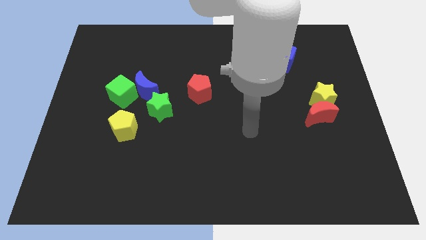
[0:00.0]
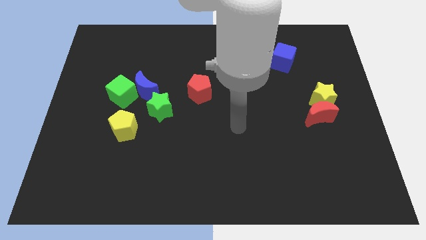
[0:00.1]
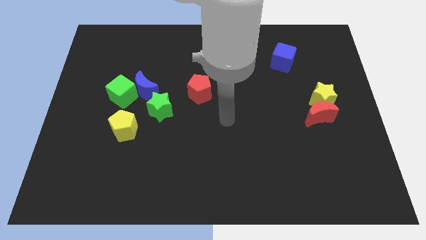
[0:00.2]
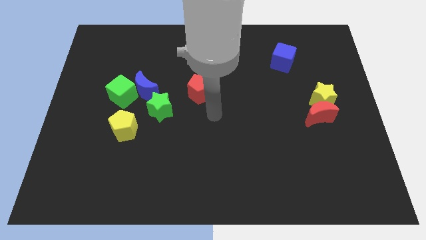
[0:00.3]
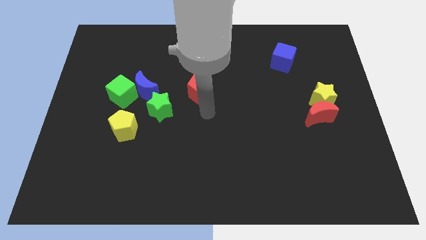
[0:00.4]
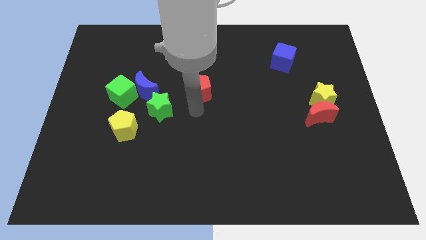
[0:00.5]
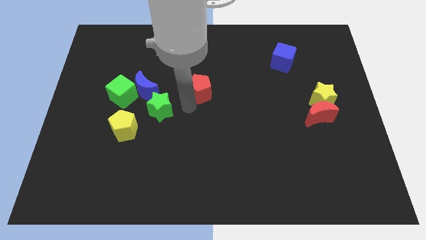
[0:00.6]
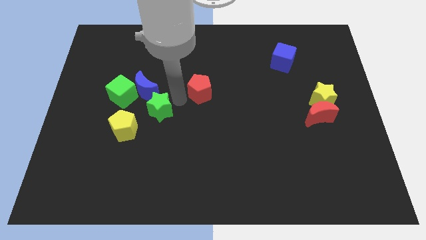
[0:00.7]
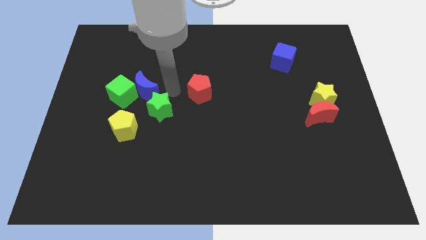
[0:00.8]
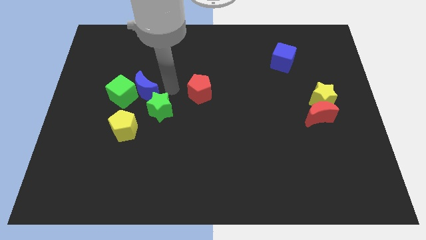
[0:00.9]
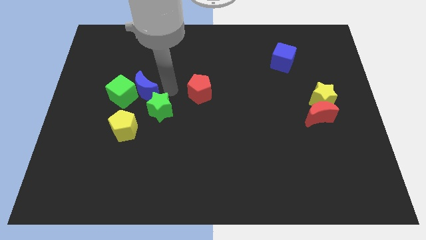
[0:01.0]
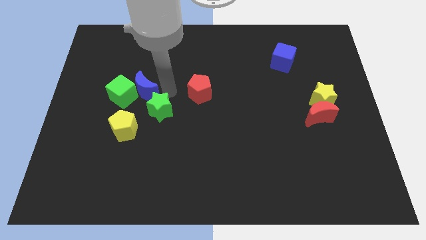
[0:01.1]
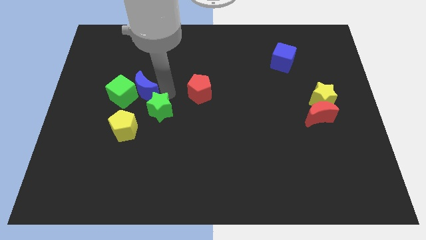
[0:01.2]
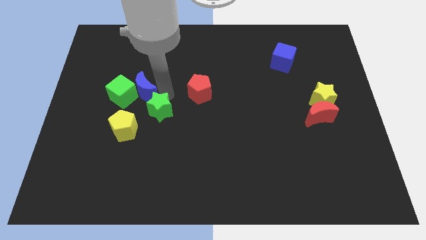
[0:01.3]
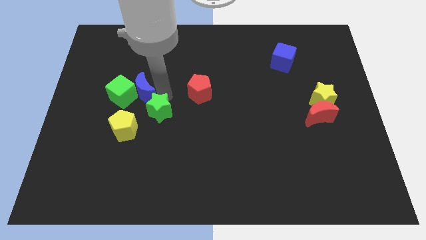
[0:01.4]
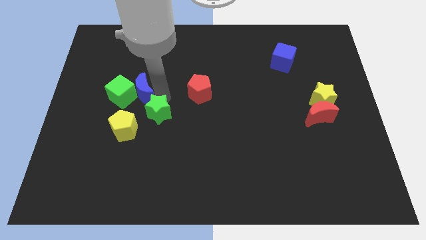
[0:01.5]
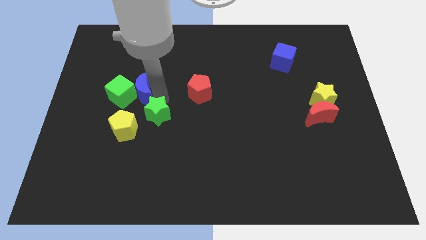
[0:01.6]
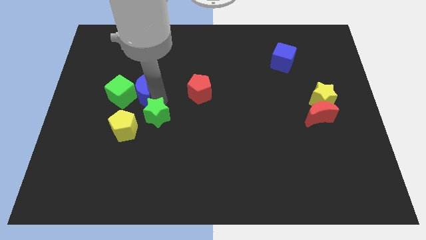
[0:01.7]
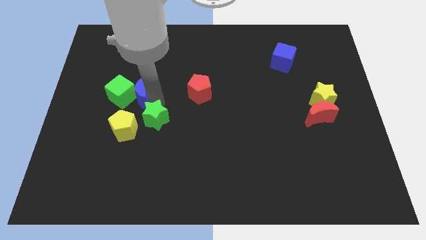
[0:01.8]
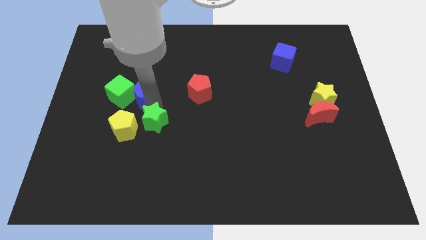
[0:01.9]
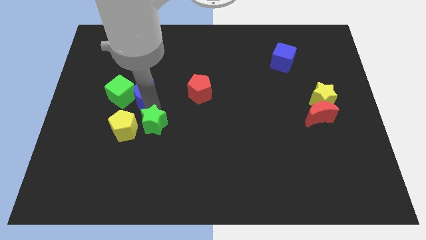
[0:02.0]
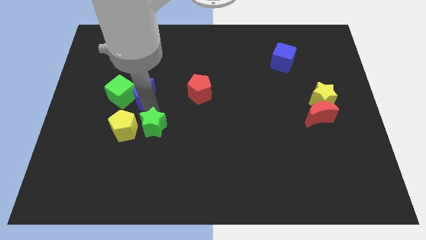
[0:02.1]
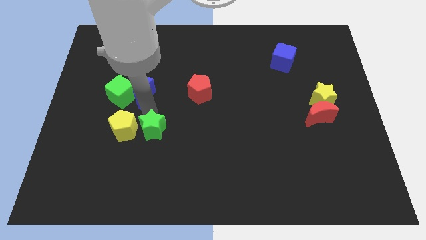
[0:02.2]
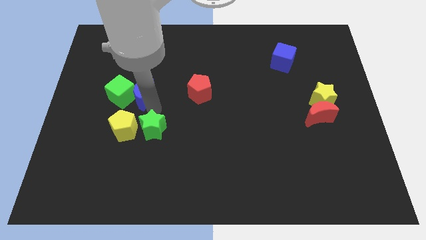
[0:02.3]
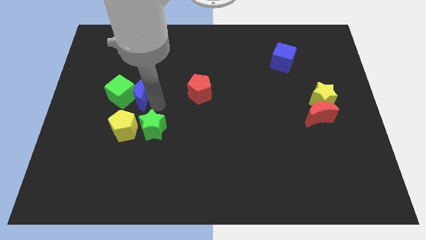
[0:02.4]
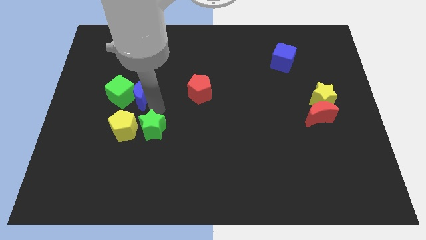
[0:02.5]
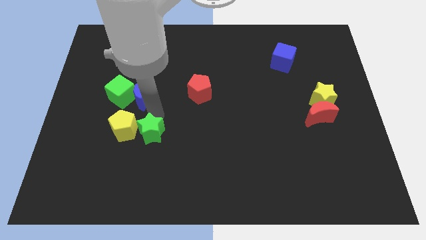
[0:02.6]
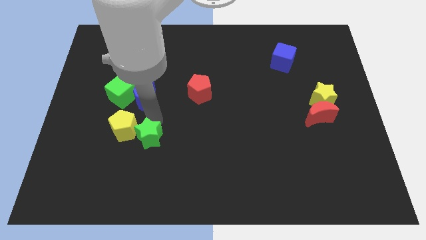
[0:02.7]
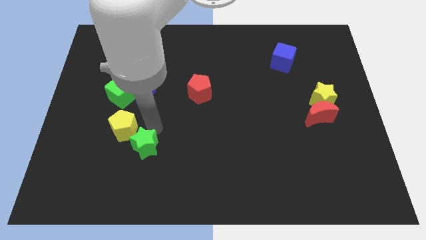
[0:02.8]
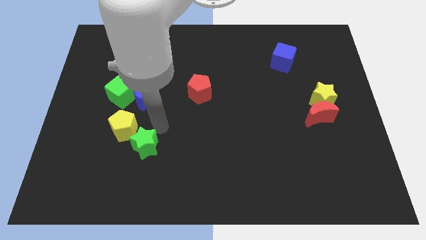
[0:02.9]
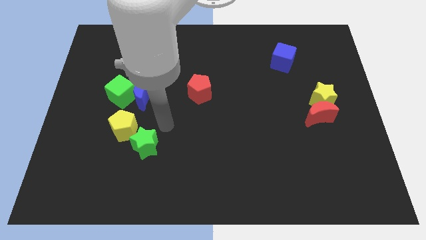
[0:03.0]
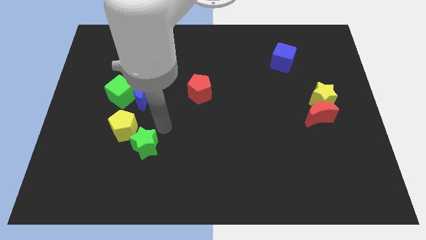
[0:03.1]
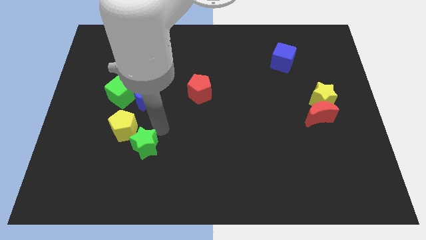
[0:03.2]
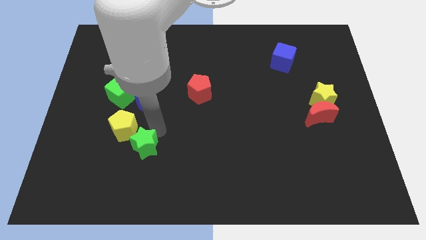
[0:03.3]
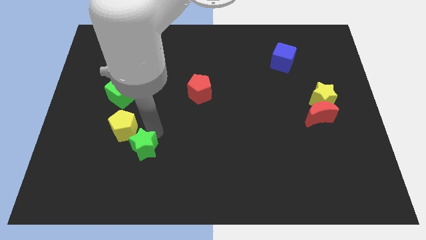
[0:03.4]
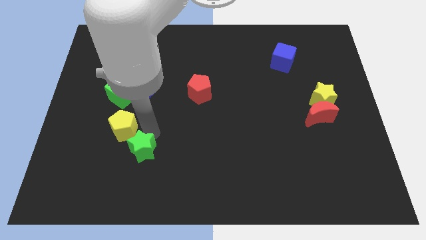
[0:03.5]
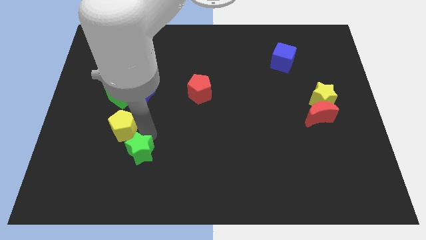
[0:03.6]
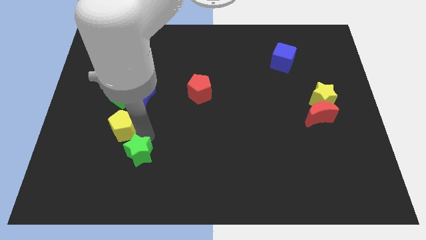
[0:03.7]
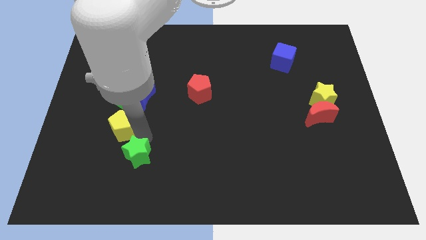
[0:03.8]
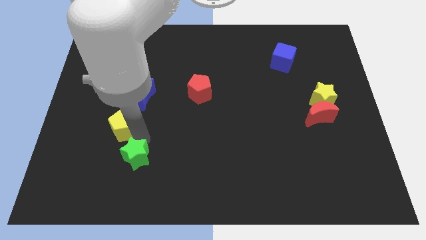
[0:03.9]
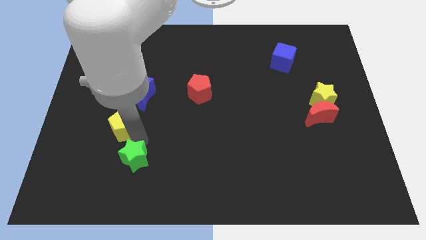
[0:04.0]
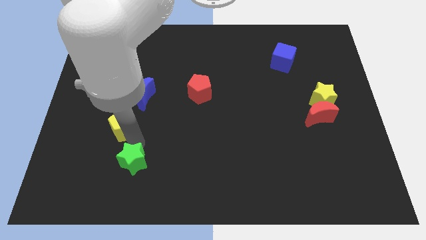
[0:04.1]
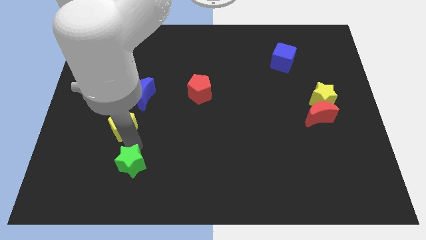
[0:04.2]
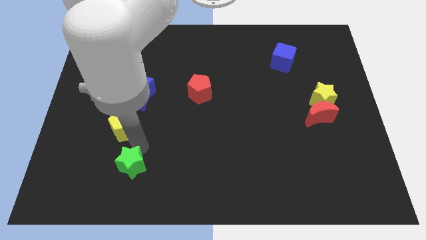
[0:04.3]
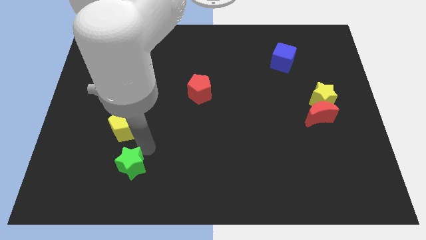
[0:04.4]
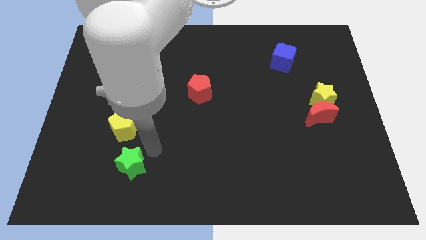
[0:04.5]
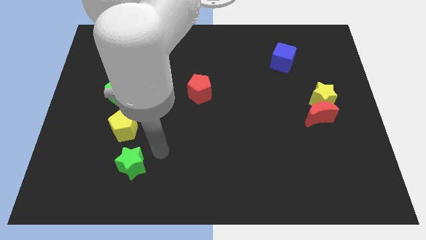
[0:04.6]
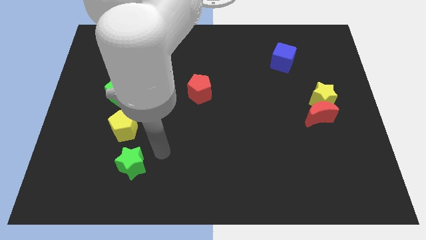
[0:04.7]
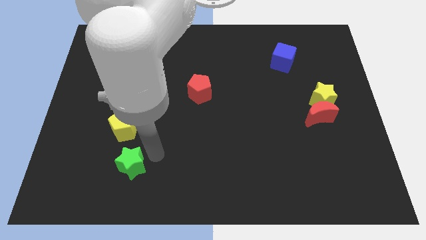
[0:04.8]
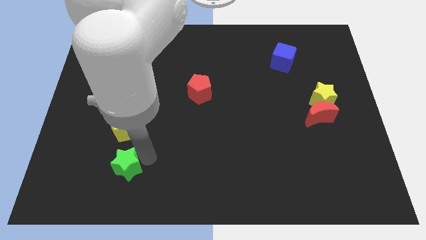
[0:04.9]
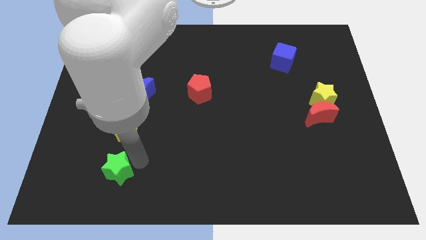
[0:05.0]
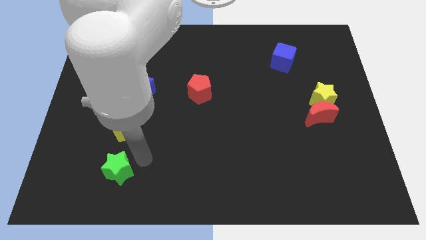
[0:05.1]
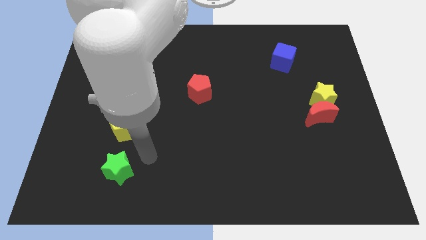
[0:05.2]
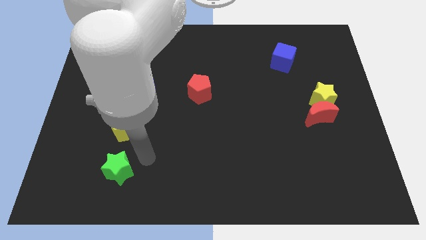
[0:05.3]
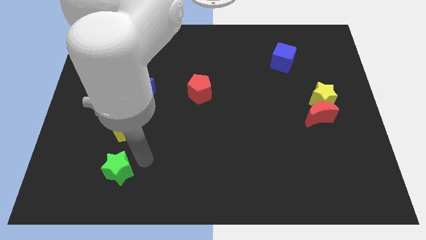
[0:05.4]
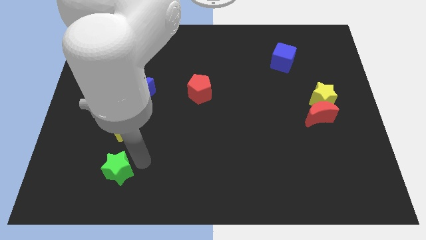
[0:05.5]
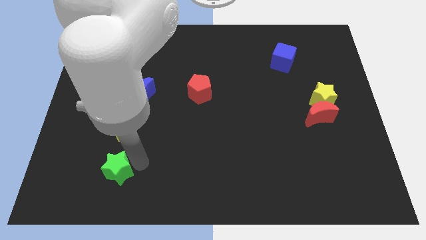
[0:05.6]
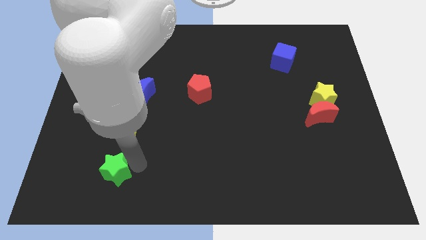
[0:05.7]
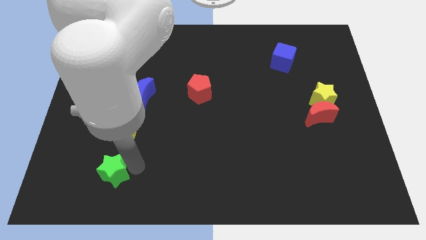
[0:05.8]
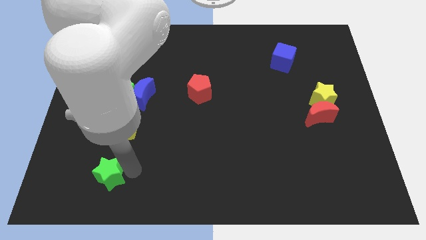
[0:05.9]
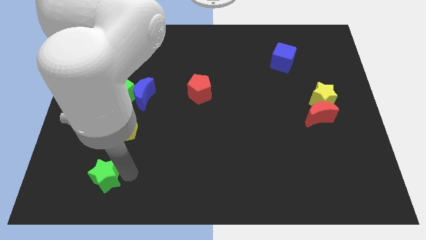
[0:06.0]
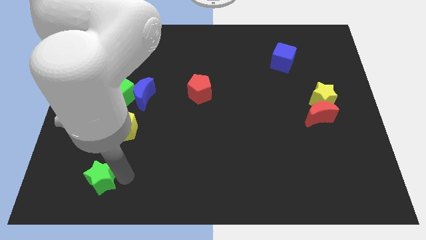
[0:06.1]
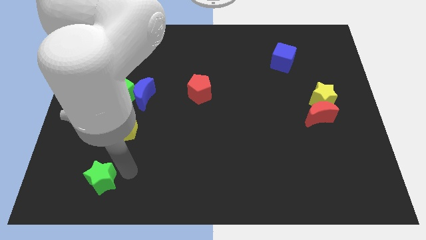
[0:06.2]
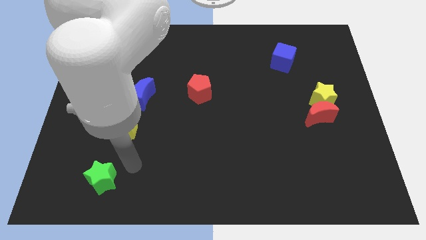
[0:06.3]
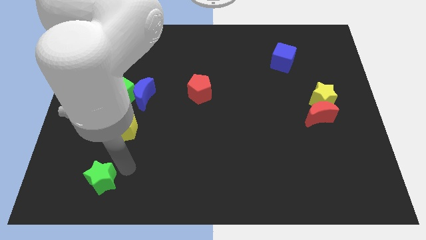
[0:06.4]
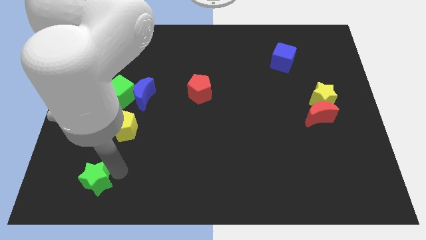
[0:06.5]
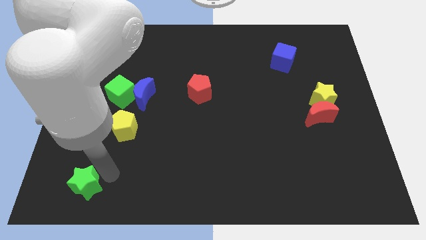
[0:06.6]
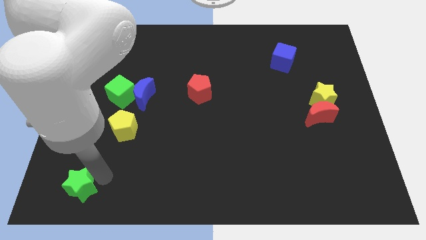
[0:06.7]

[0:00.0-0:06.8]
slide the green star to the bottom left corner
